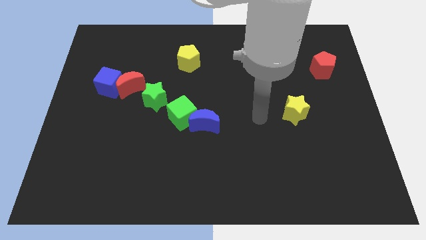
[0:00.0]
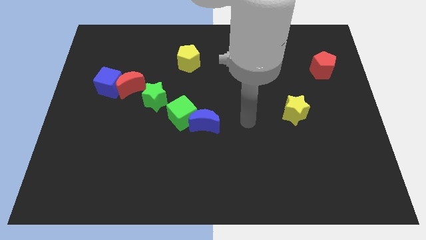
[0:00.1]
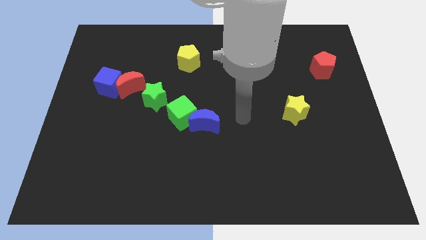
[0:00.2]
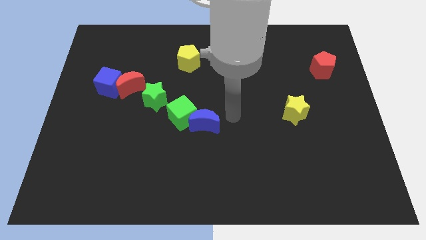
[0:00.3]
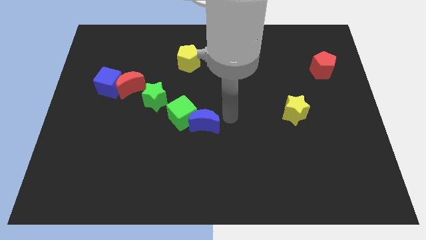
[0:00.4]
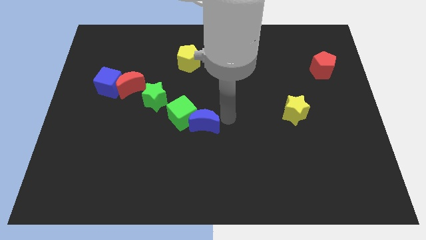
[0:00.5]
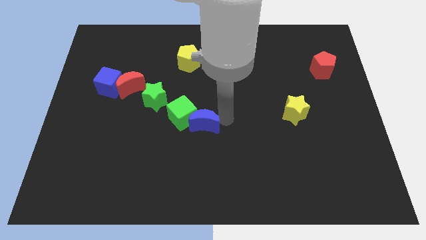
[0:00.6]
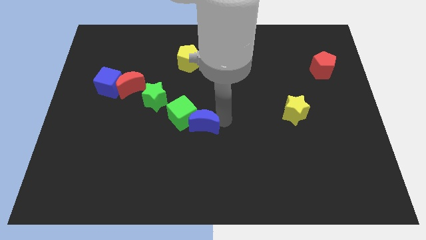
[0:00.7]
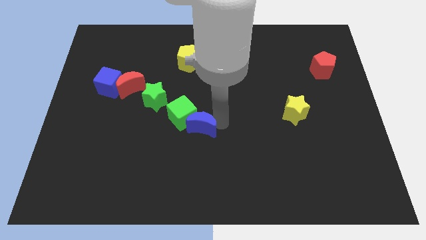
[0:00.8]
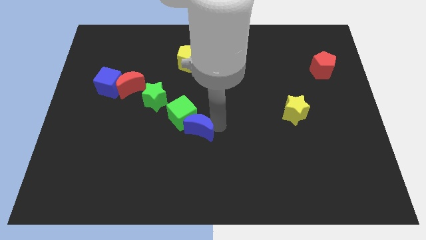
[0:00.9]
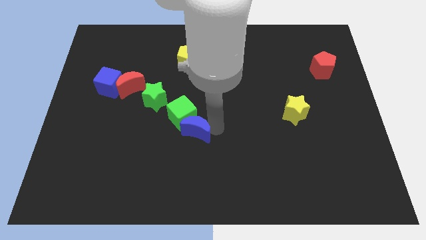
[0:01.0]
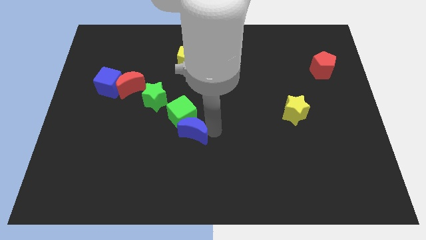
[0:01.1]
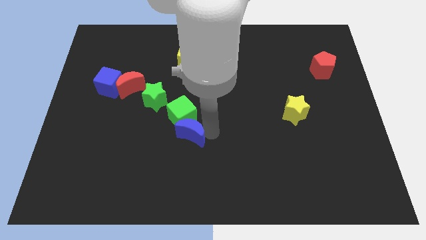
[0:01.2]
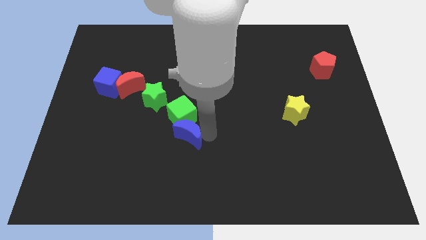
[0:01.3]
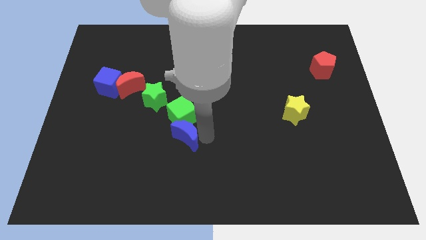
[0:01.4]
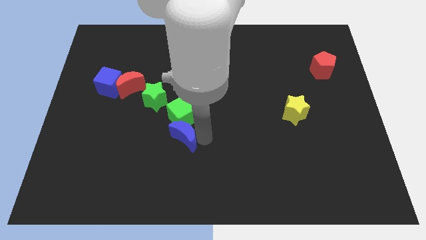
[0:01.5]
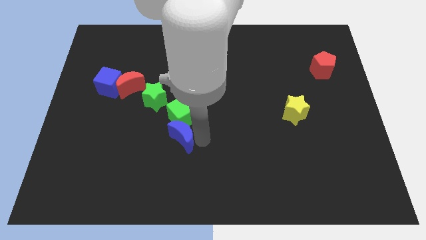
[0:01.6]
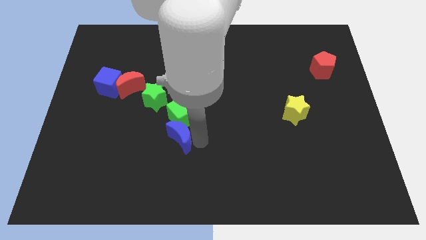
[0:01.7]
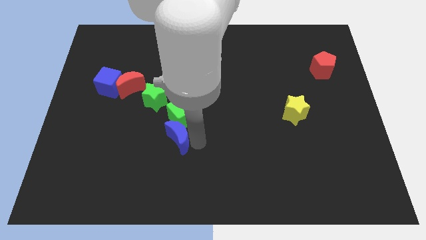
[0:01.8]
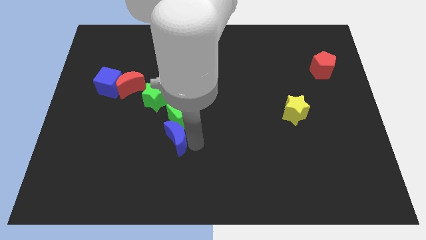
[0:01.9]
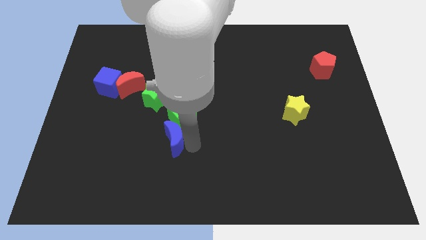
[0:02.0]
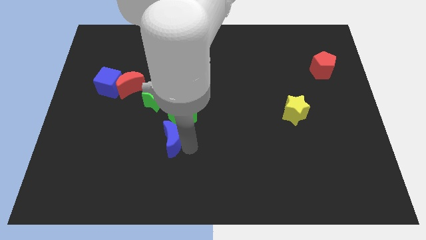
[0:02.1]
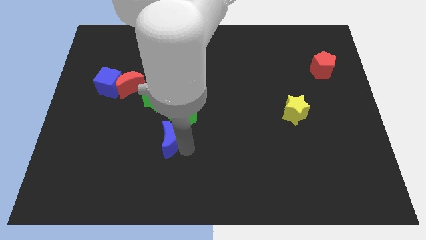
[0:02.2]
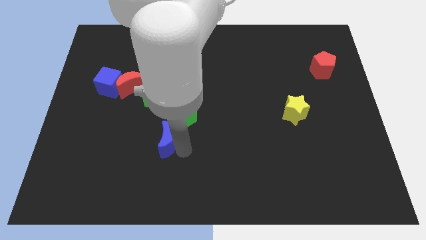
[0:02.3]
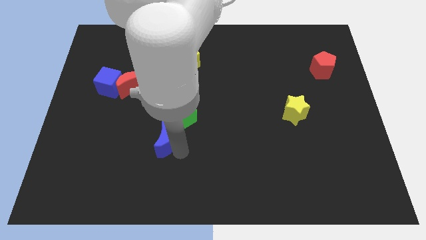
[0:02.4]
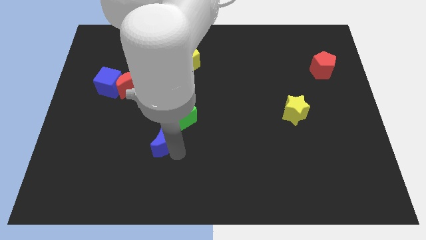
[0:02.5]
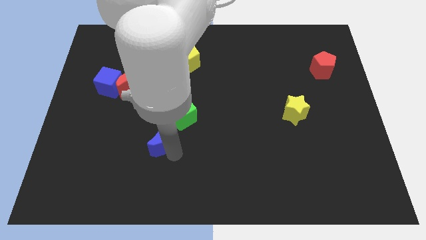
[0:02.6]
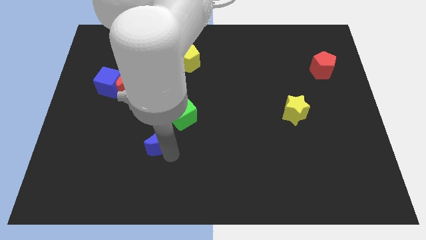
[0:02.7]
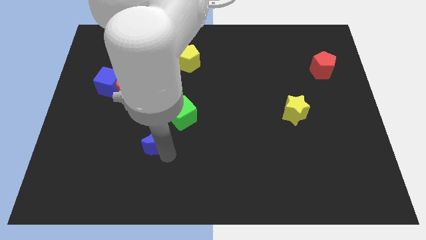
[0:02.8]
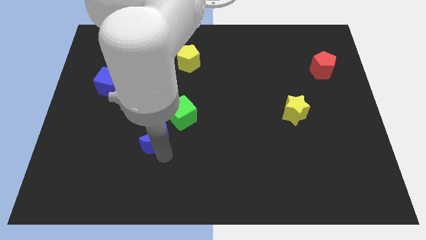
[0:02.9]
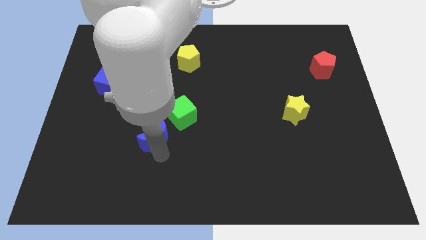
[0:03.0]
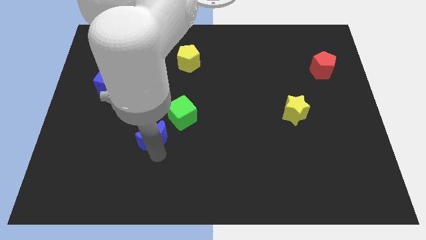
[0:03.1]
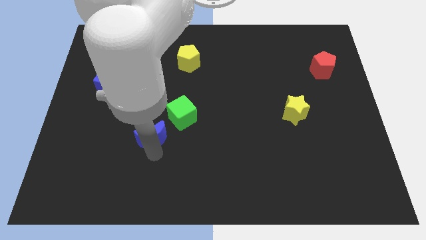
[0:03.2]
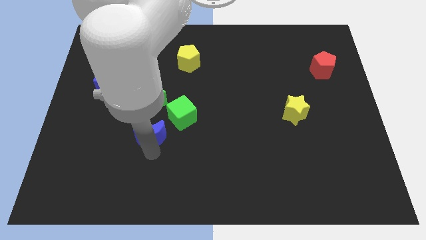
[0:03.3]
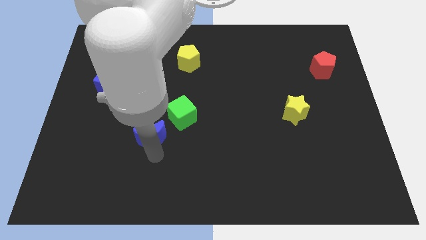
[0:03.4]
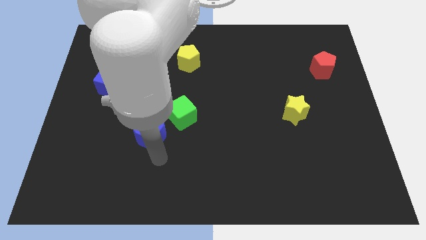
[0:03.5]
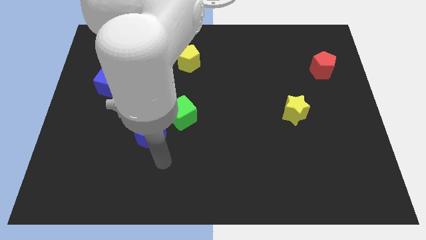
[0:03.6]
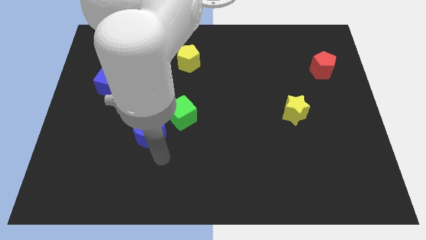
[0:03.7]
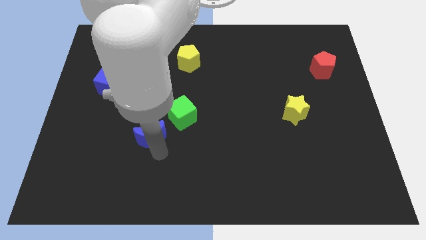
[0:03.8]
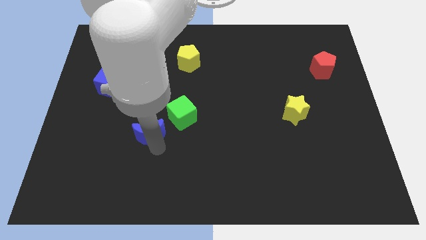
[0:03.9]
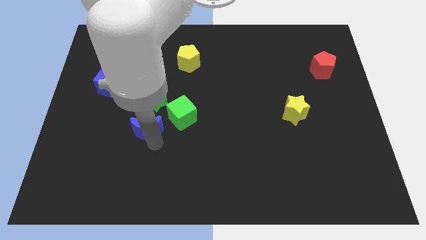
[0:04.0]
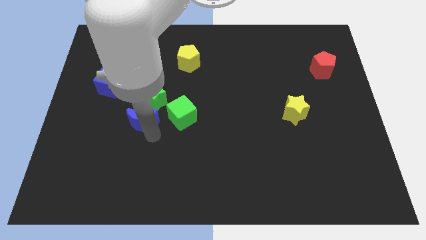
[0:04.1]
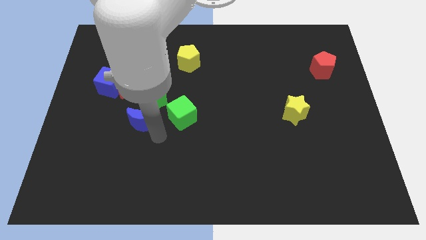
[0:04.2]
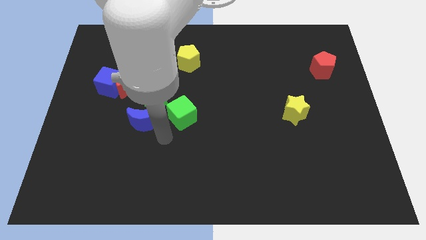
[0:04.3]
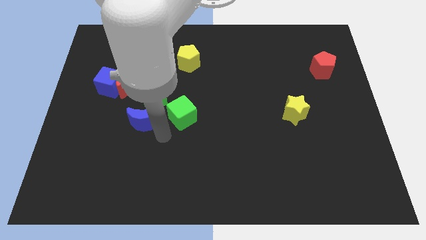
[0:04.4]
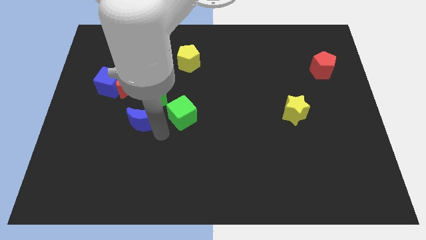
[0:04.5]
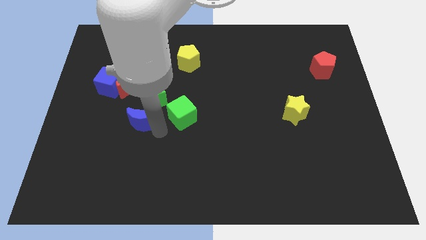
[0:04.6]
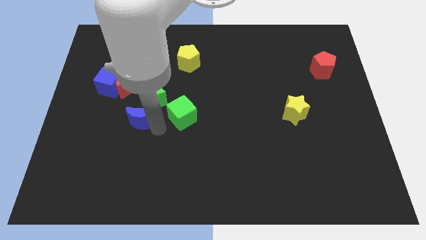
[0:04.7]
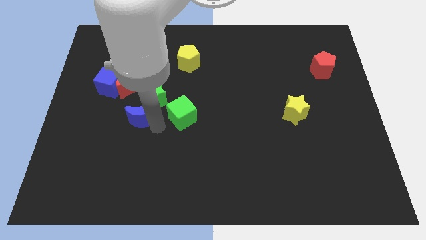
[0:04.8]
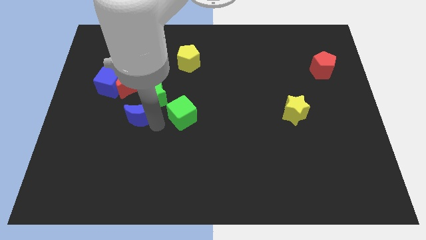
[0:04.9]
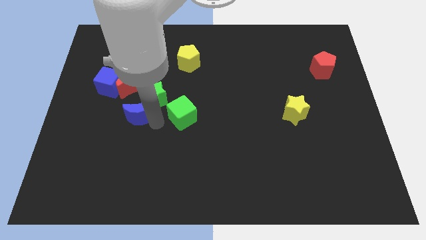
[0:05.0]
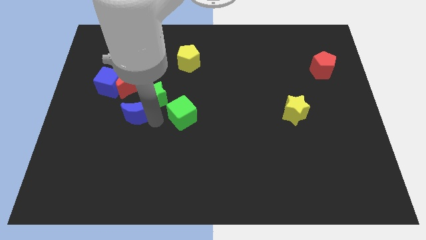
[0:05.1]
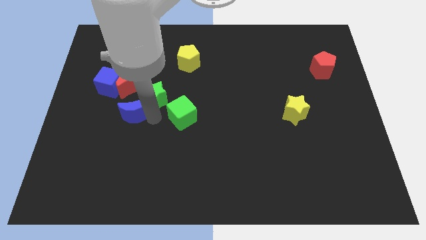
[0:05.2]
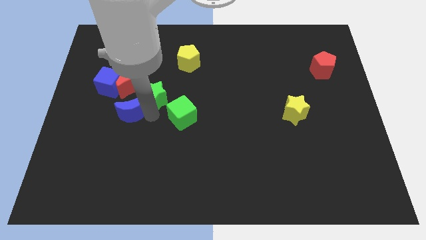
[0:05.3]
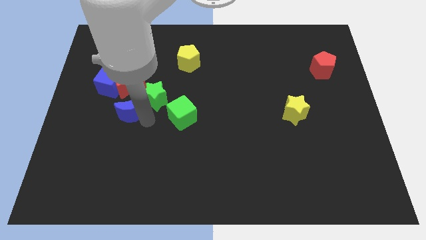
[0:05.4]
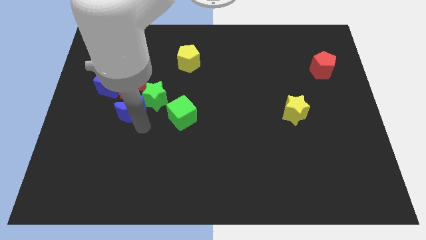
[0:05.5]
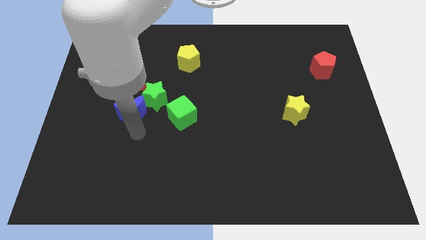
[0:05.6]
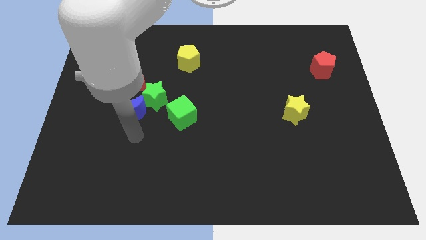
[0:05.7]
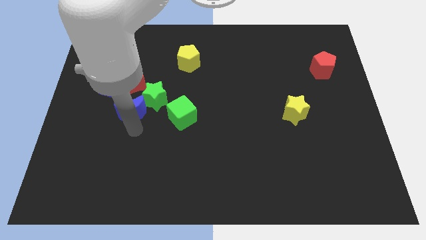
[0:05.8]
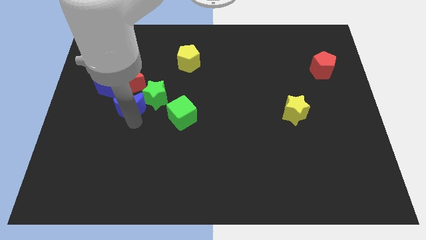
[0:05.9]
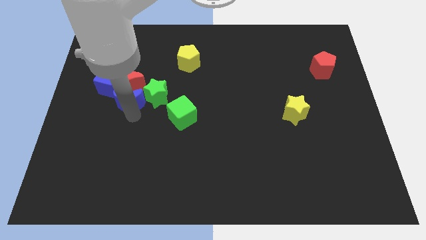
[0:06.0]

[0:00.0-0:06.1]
move the blue moon close to the red moon

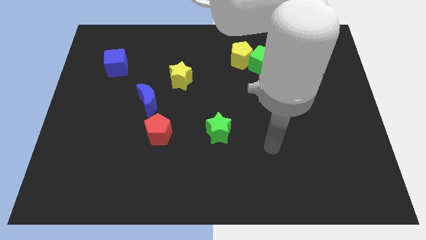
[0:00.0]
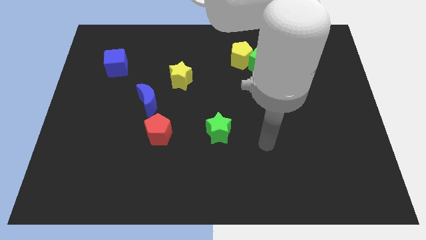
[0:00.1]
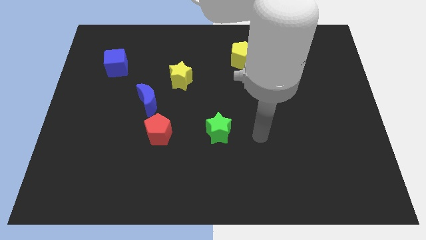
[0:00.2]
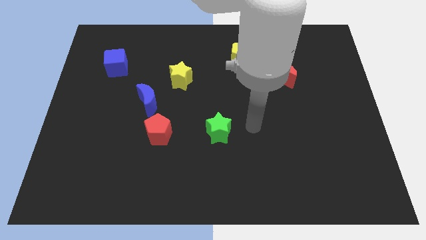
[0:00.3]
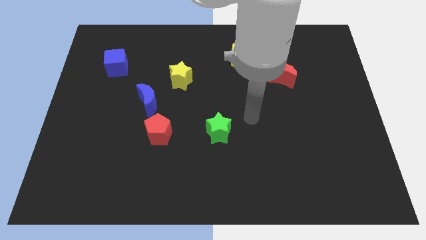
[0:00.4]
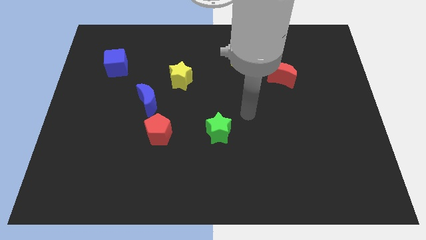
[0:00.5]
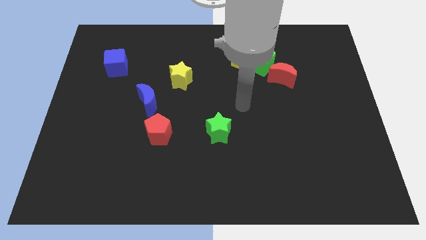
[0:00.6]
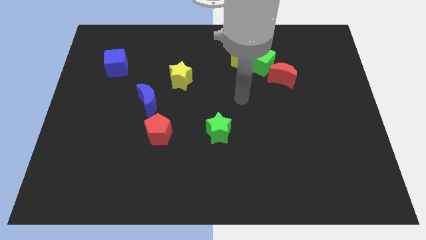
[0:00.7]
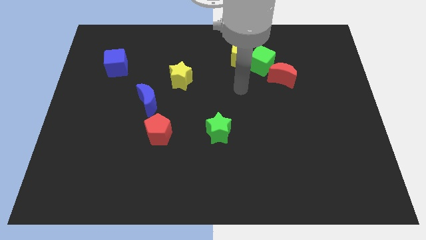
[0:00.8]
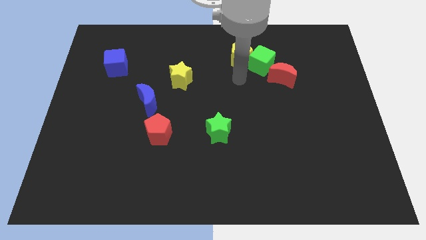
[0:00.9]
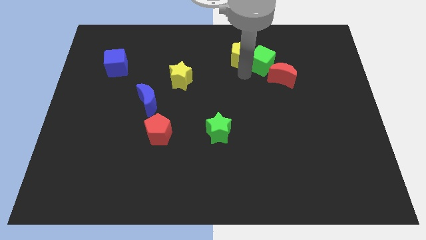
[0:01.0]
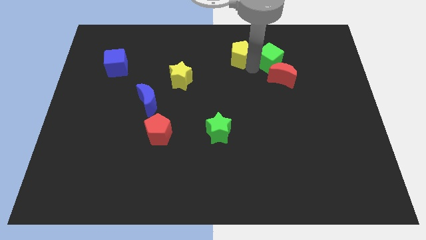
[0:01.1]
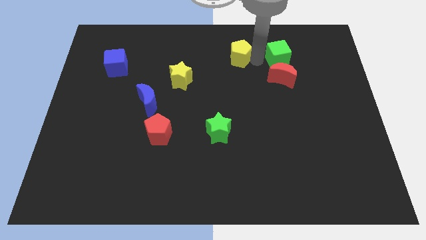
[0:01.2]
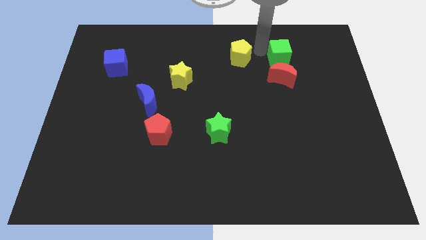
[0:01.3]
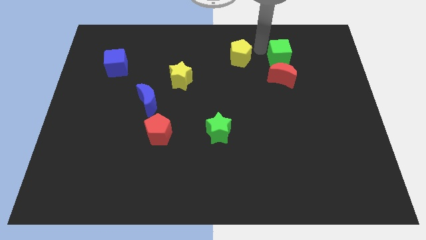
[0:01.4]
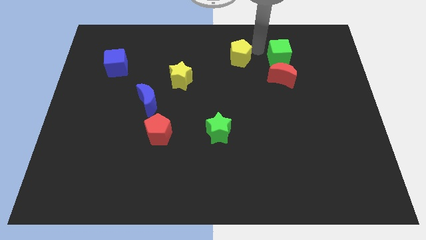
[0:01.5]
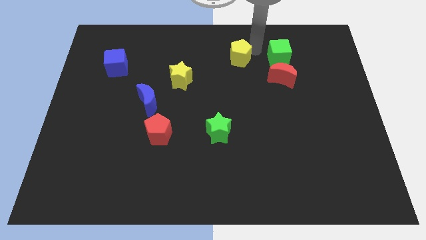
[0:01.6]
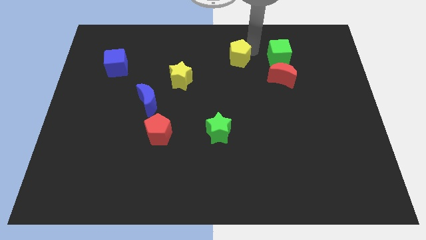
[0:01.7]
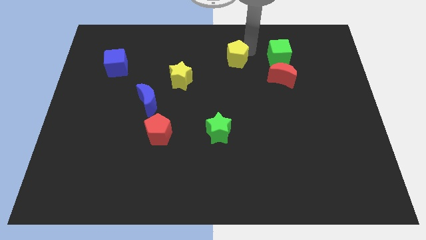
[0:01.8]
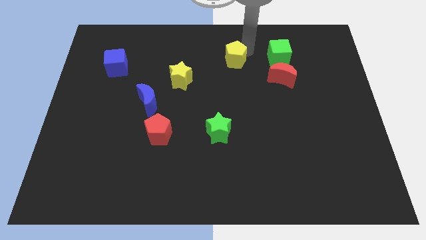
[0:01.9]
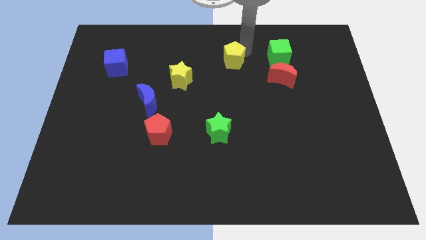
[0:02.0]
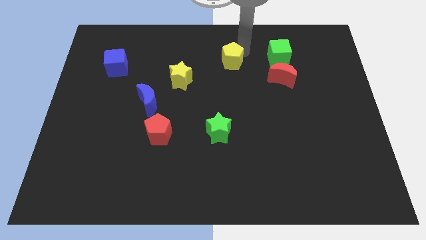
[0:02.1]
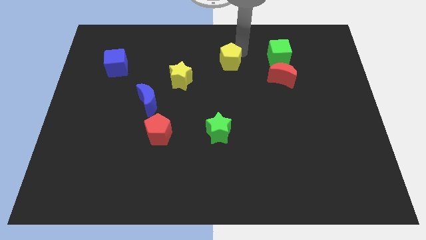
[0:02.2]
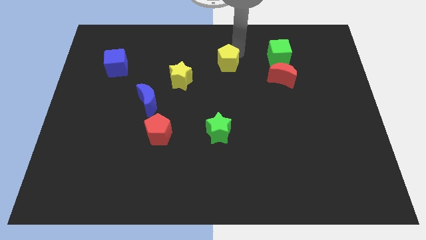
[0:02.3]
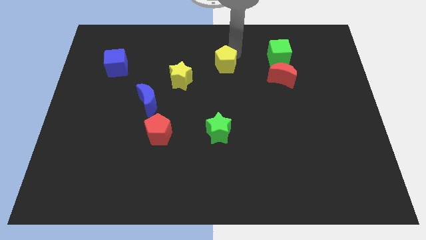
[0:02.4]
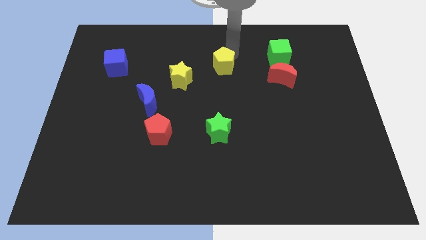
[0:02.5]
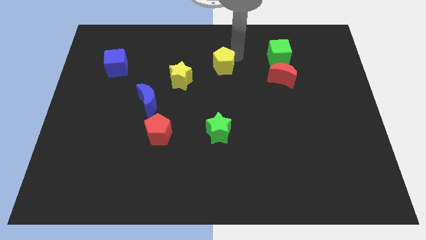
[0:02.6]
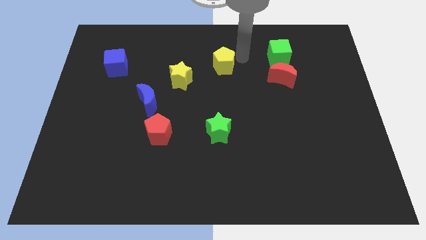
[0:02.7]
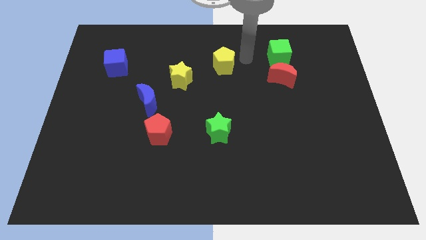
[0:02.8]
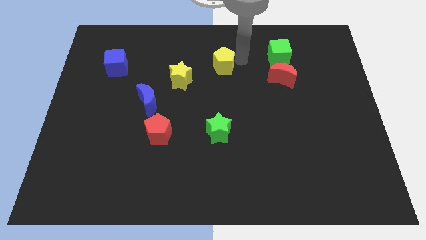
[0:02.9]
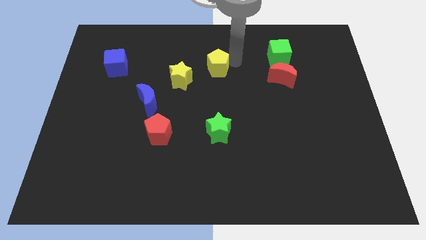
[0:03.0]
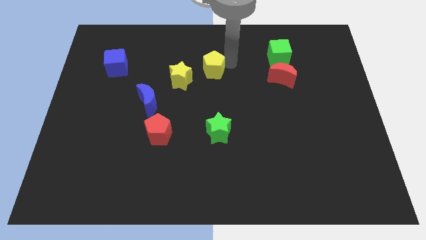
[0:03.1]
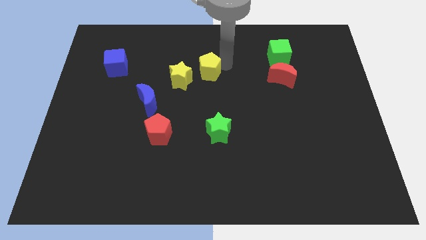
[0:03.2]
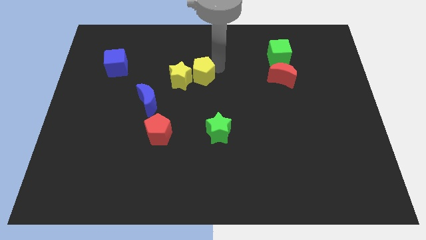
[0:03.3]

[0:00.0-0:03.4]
move the yellow pentagon next to the yellow star
